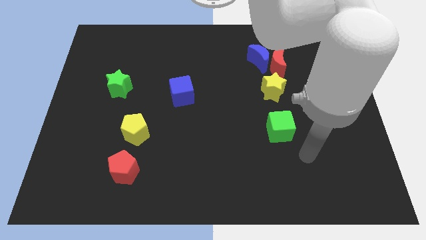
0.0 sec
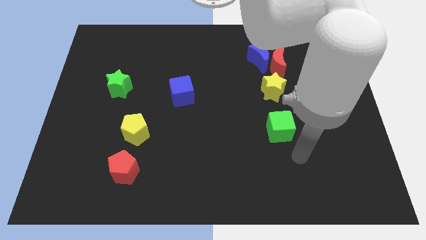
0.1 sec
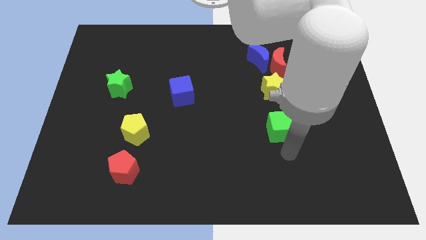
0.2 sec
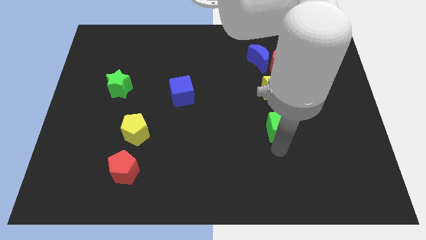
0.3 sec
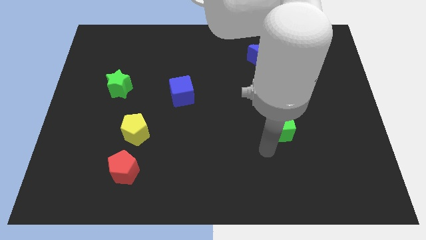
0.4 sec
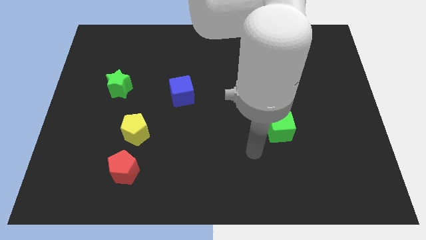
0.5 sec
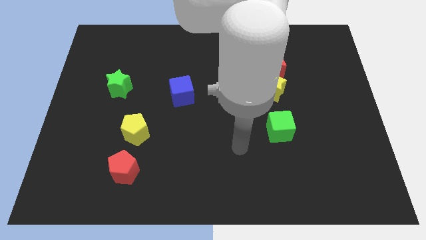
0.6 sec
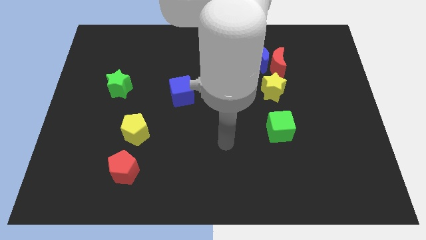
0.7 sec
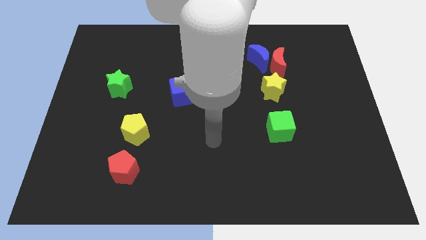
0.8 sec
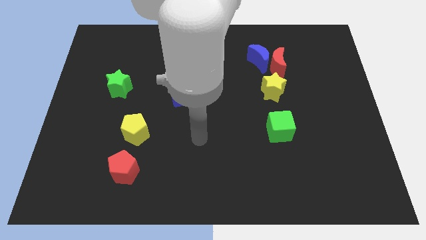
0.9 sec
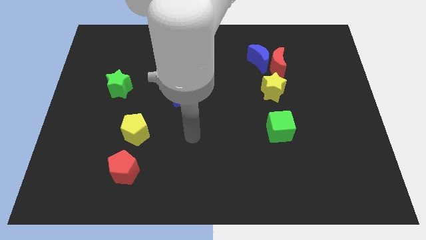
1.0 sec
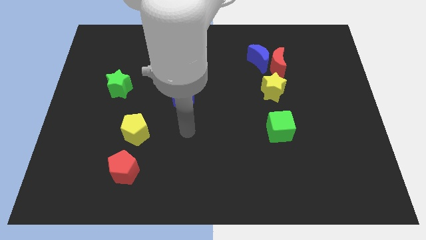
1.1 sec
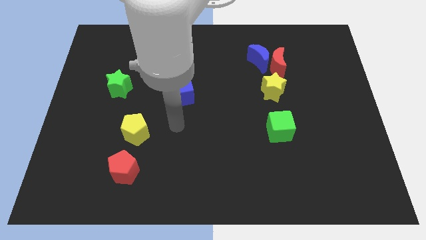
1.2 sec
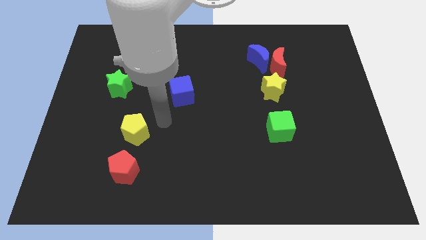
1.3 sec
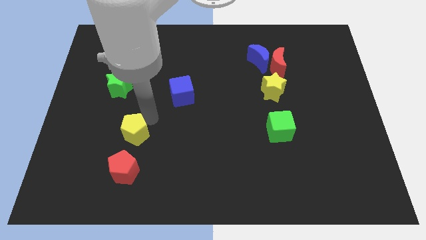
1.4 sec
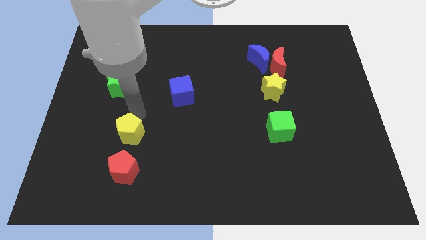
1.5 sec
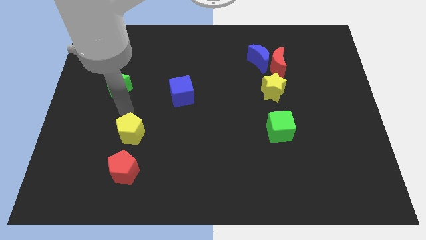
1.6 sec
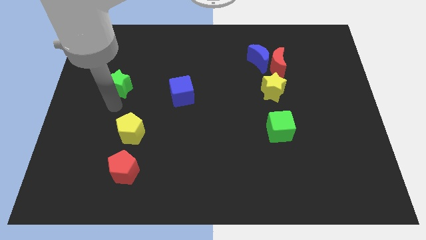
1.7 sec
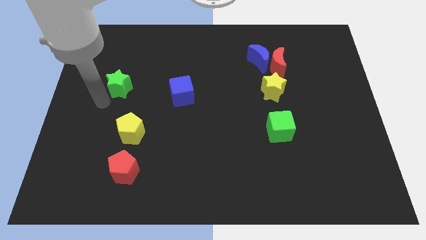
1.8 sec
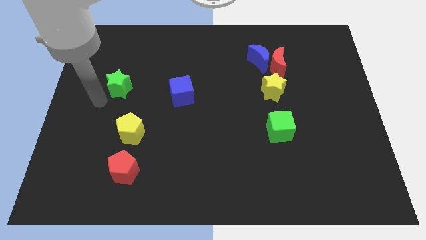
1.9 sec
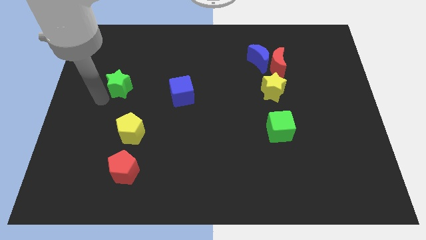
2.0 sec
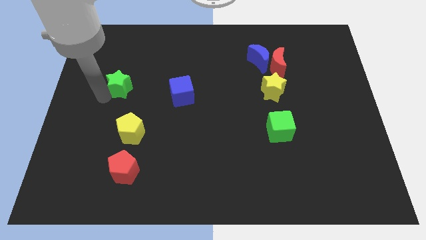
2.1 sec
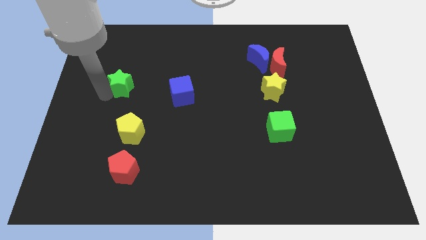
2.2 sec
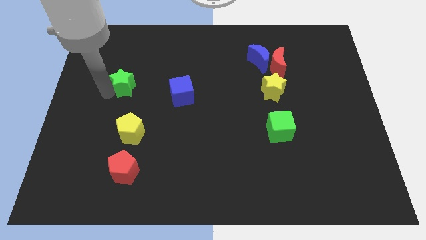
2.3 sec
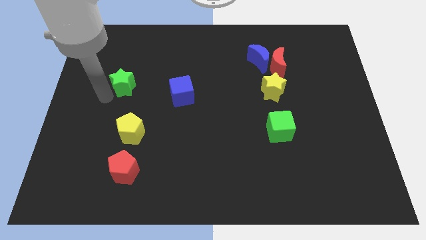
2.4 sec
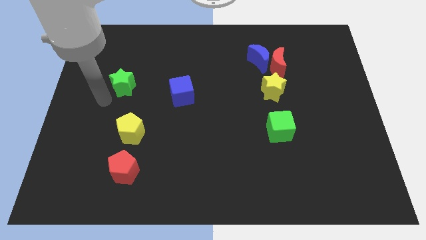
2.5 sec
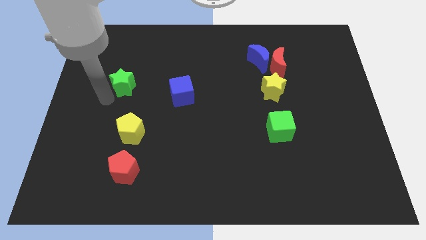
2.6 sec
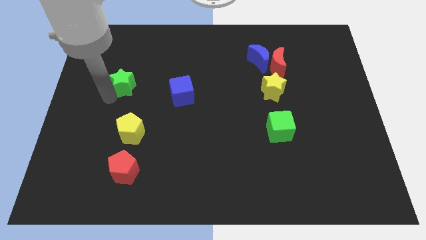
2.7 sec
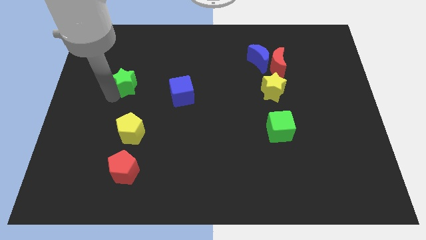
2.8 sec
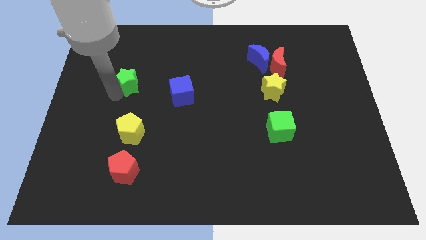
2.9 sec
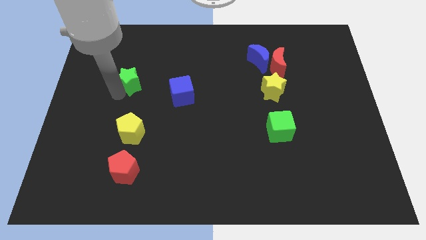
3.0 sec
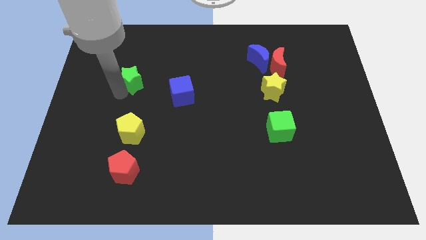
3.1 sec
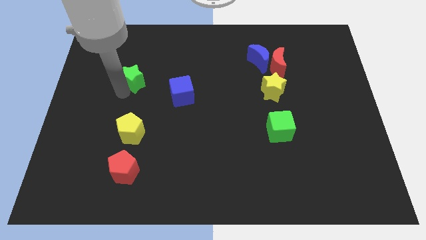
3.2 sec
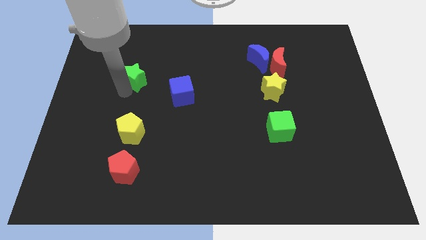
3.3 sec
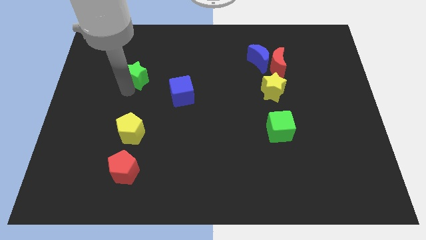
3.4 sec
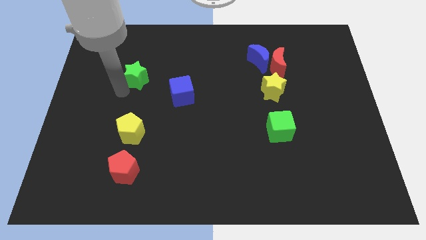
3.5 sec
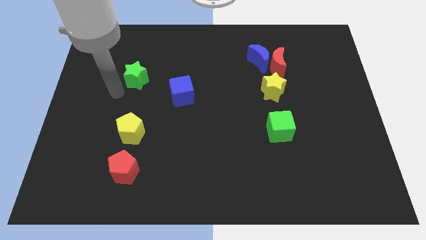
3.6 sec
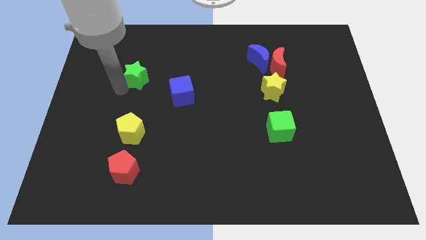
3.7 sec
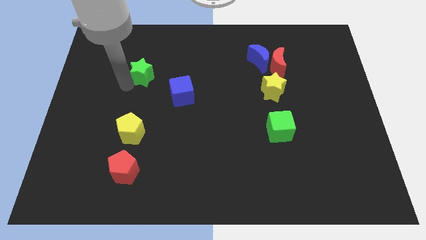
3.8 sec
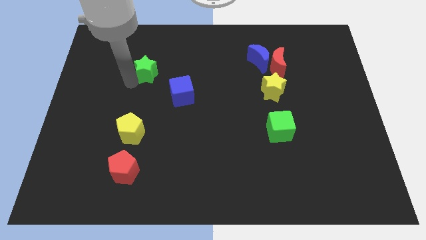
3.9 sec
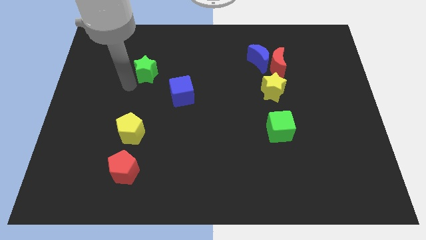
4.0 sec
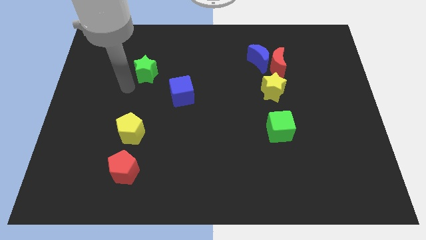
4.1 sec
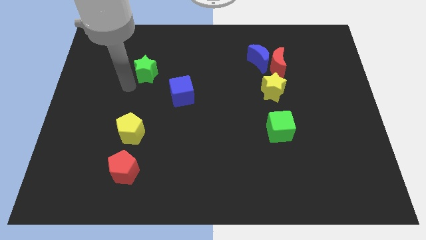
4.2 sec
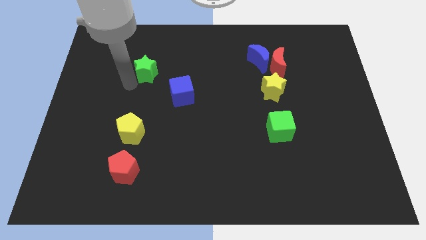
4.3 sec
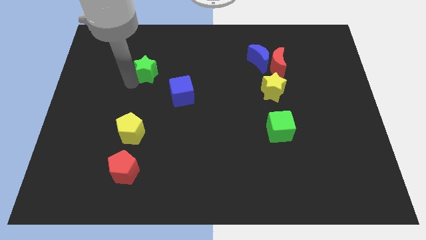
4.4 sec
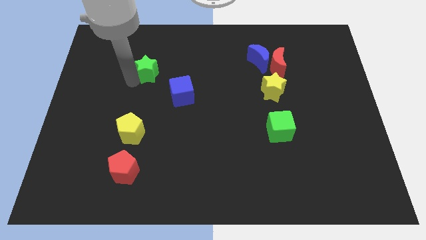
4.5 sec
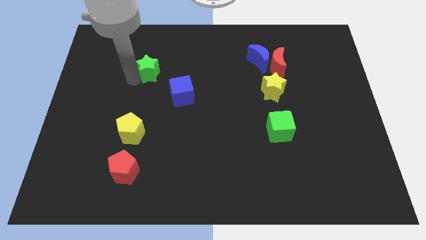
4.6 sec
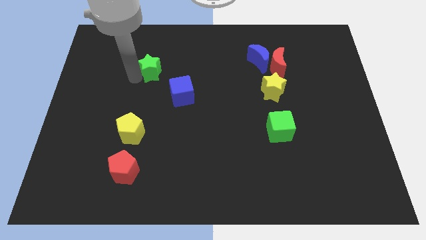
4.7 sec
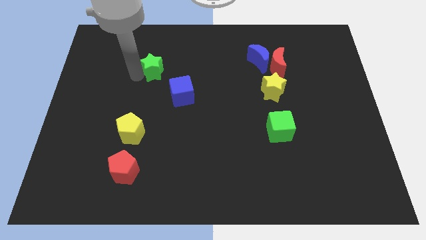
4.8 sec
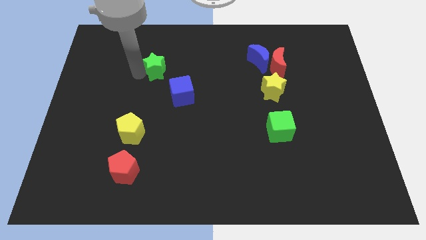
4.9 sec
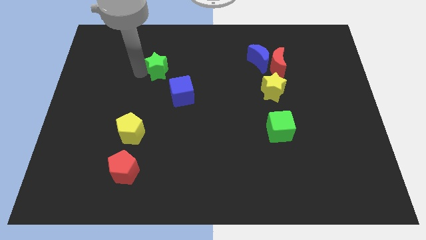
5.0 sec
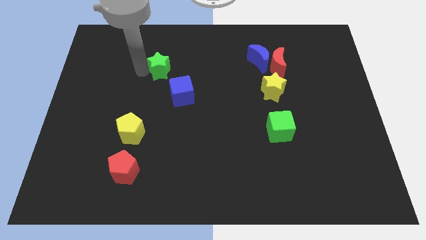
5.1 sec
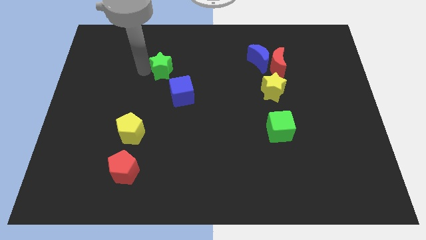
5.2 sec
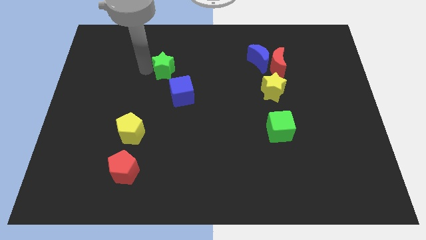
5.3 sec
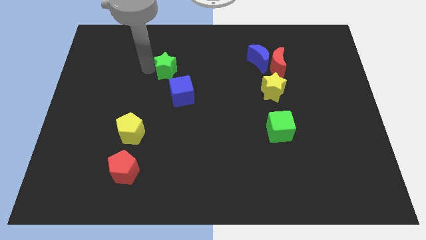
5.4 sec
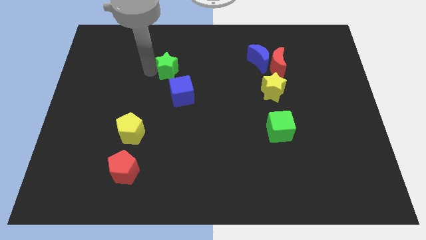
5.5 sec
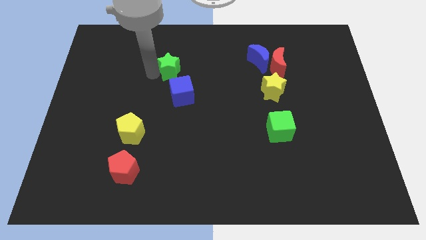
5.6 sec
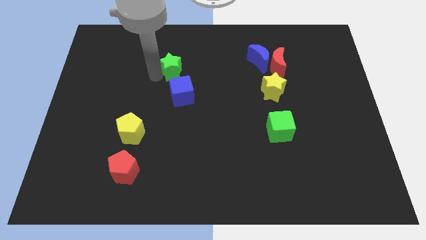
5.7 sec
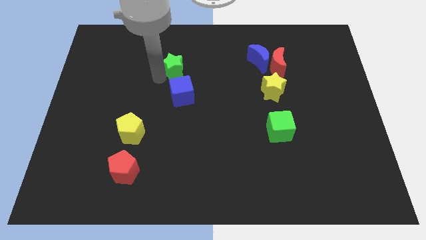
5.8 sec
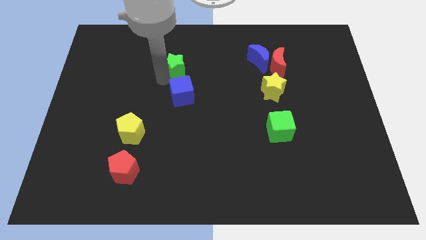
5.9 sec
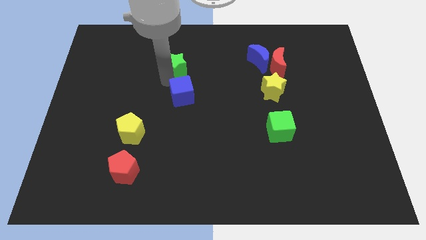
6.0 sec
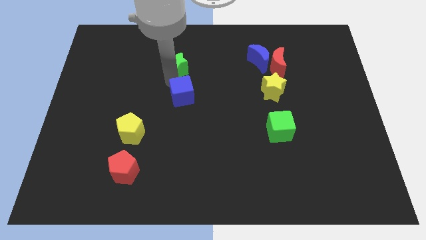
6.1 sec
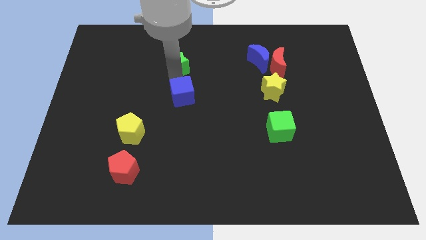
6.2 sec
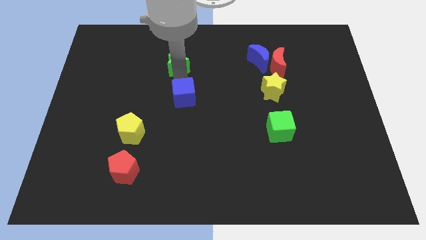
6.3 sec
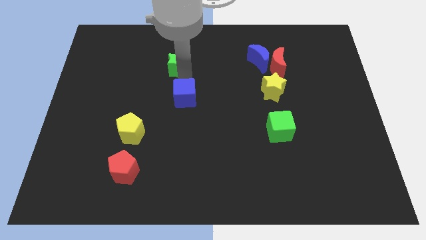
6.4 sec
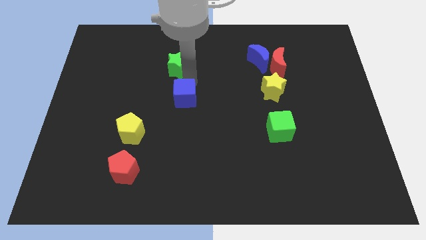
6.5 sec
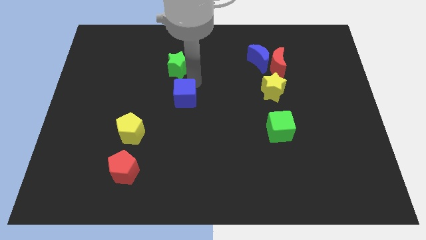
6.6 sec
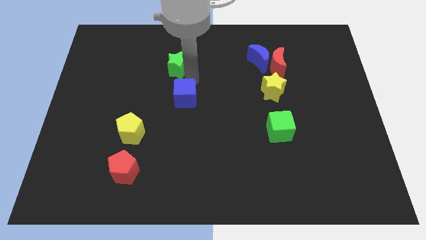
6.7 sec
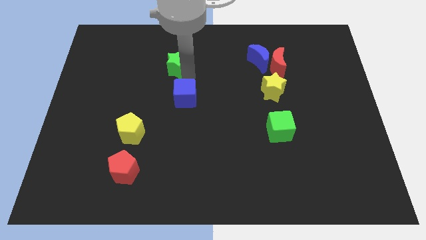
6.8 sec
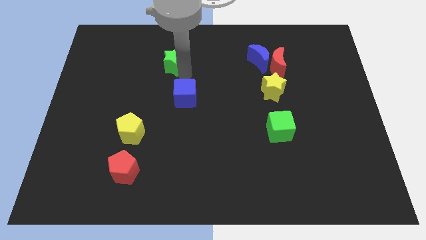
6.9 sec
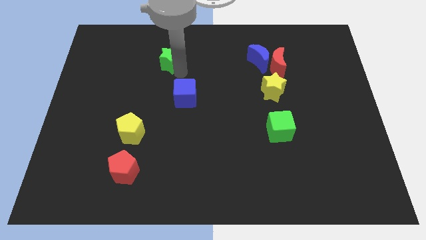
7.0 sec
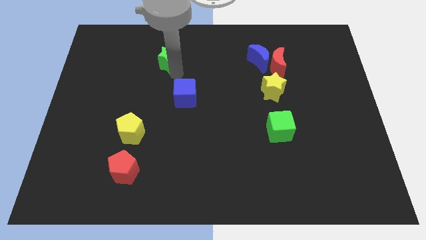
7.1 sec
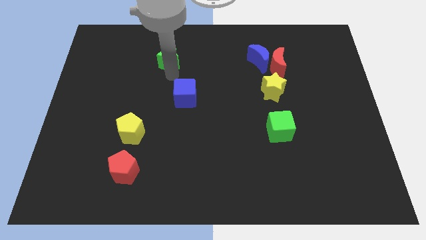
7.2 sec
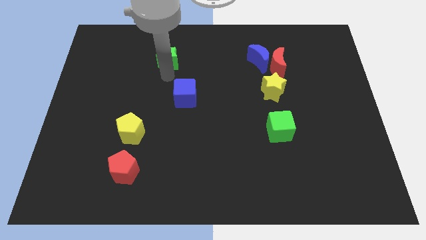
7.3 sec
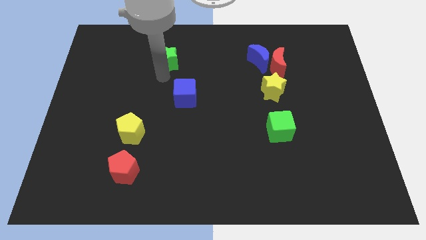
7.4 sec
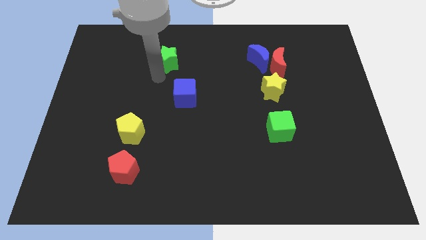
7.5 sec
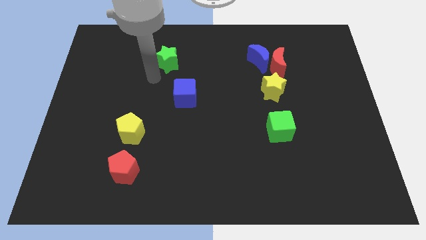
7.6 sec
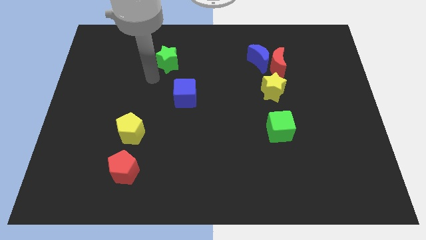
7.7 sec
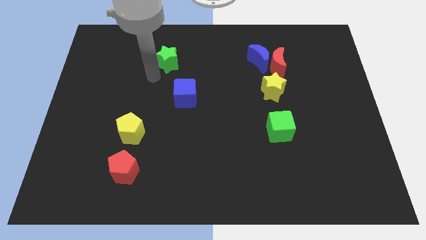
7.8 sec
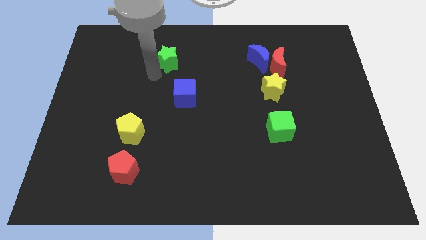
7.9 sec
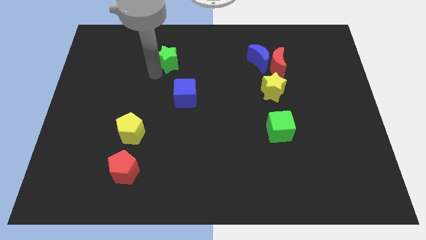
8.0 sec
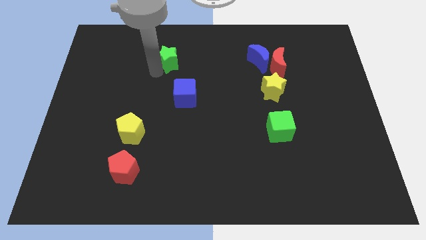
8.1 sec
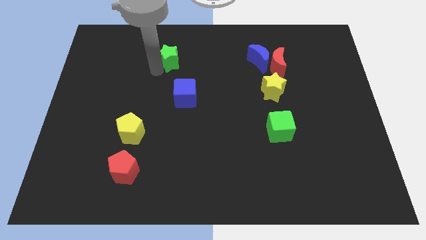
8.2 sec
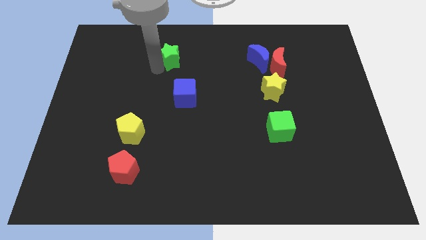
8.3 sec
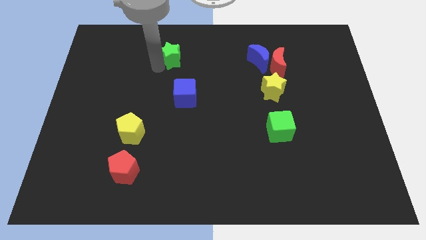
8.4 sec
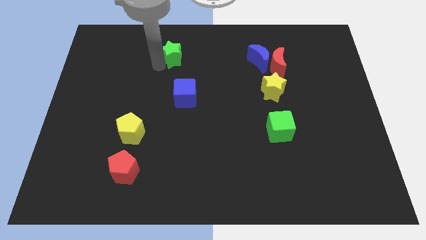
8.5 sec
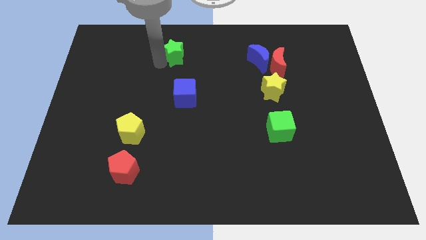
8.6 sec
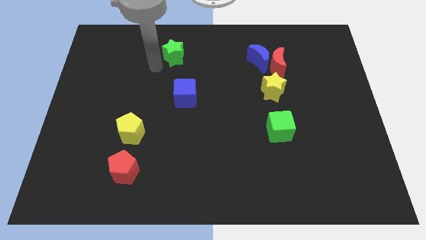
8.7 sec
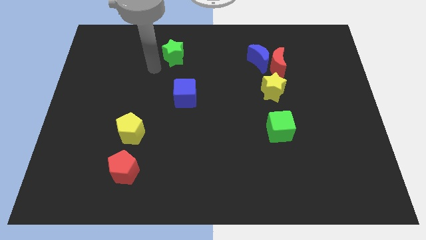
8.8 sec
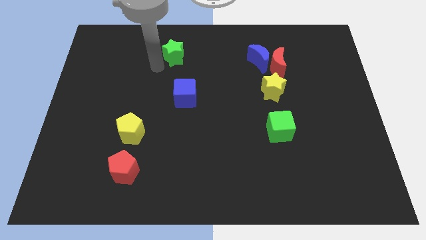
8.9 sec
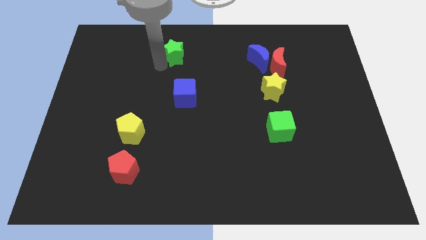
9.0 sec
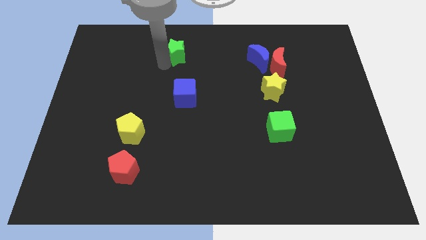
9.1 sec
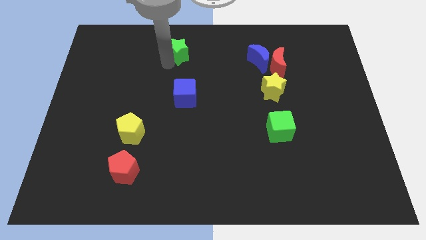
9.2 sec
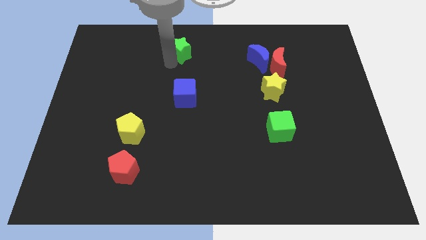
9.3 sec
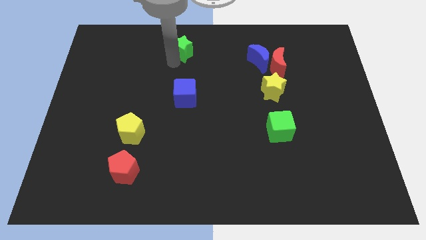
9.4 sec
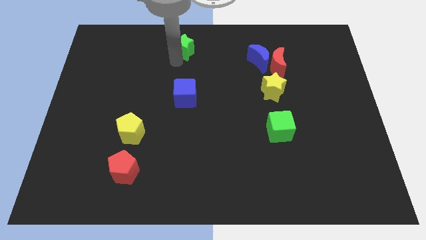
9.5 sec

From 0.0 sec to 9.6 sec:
slide the green star to the top
